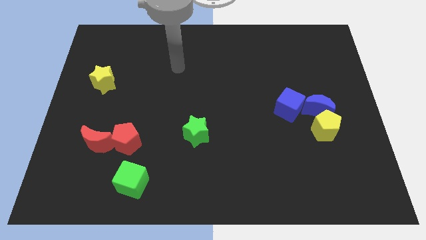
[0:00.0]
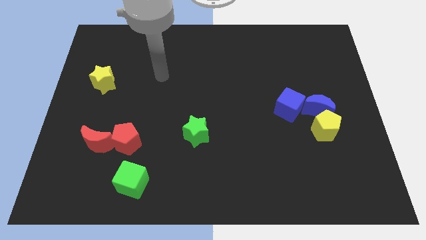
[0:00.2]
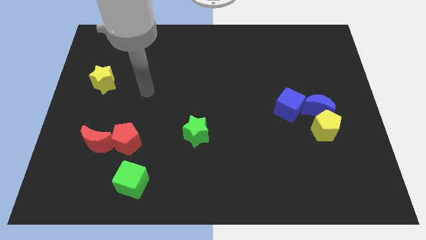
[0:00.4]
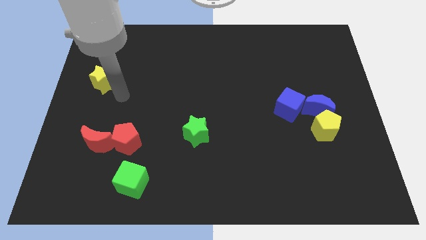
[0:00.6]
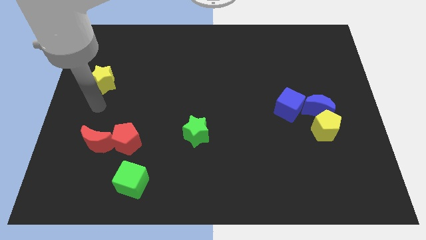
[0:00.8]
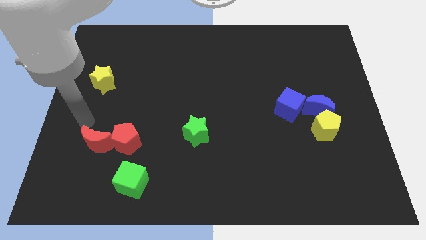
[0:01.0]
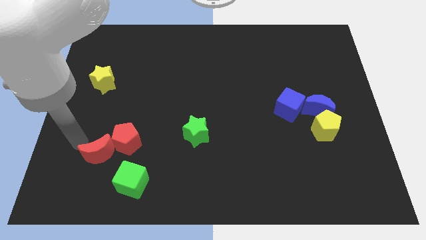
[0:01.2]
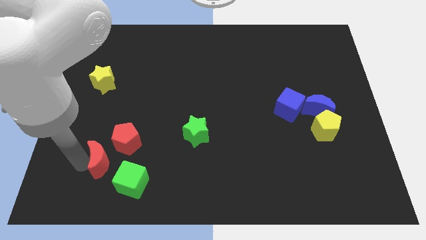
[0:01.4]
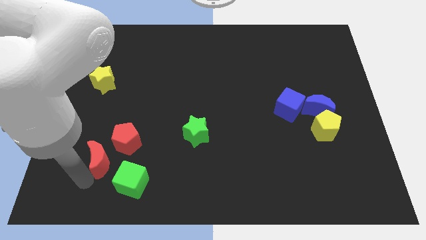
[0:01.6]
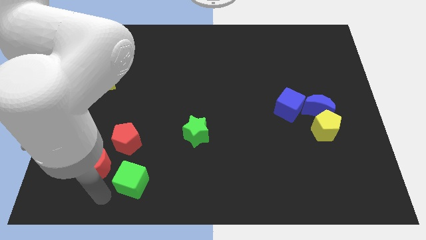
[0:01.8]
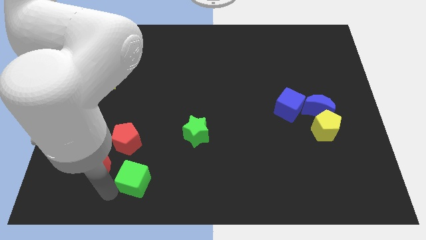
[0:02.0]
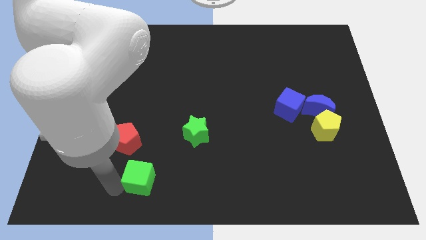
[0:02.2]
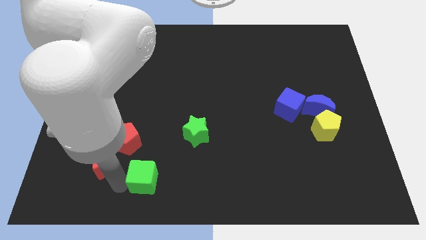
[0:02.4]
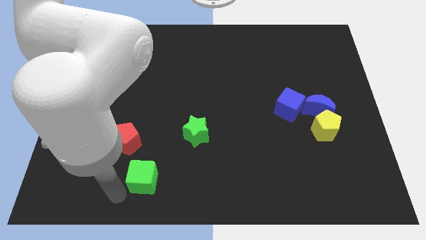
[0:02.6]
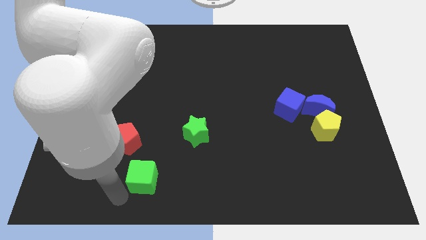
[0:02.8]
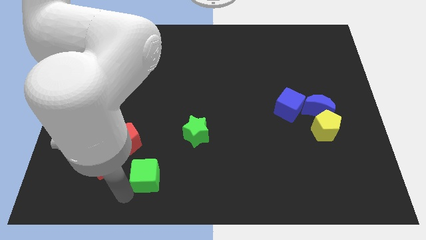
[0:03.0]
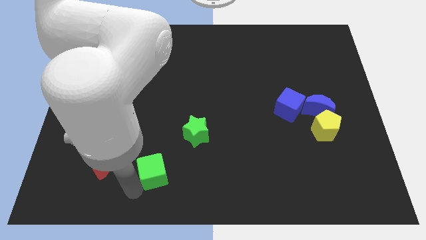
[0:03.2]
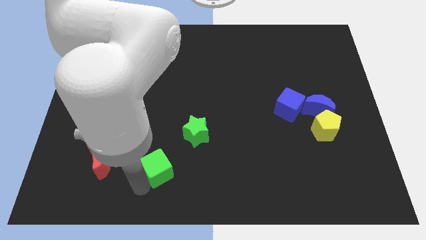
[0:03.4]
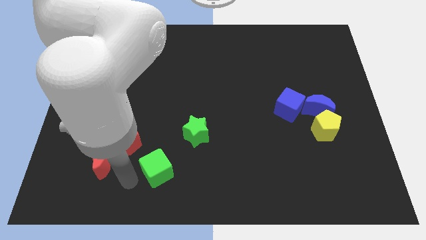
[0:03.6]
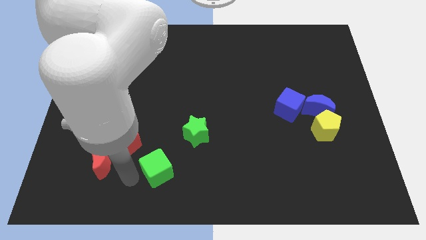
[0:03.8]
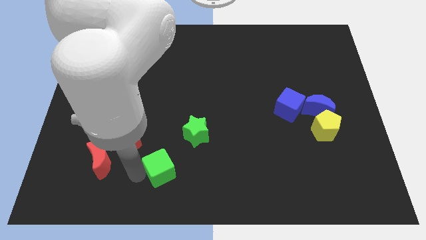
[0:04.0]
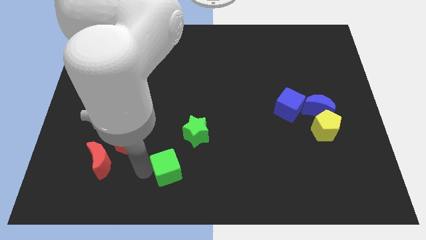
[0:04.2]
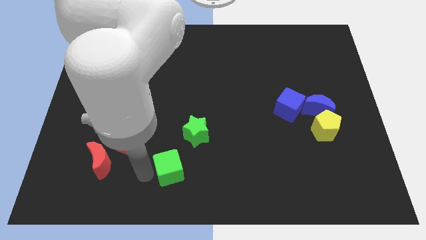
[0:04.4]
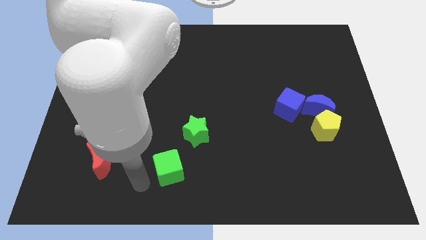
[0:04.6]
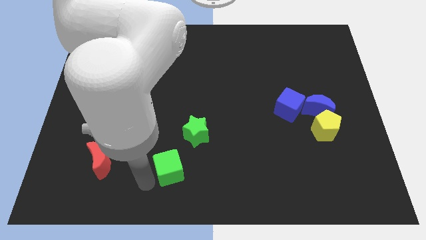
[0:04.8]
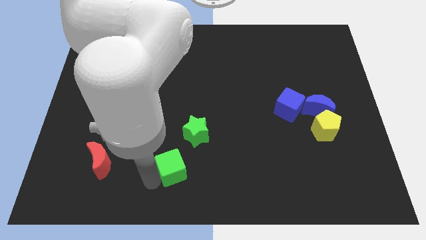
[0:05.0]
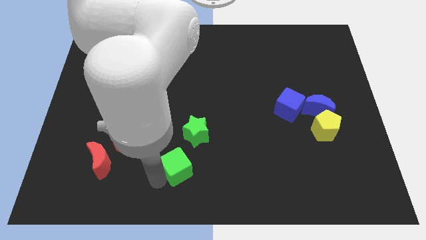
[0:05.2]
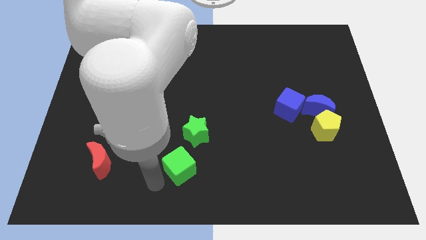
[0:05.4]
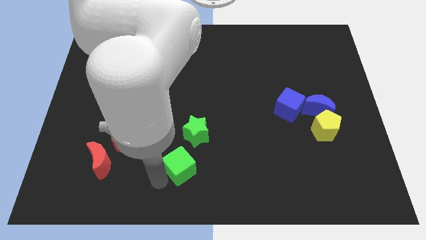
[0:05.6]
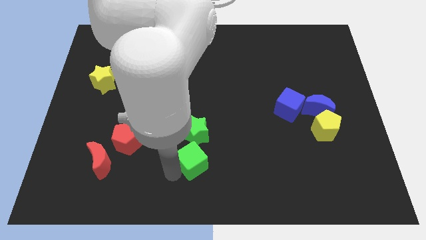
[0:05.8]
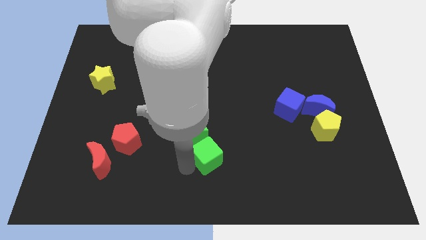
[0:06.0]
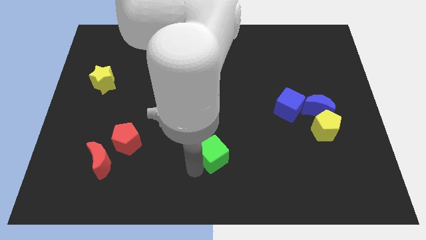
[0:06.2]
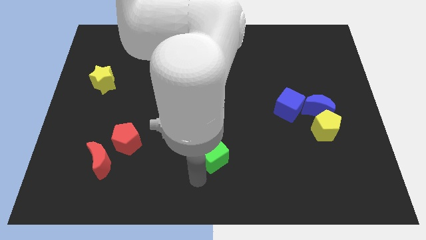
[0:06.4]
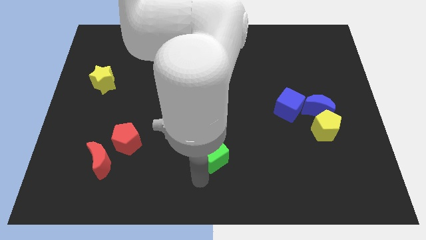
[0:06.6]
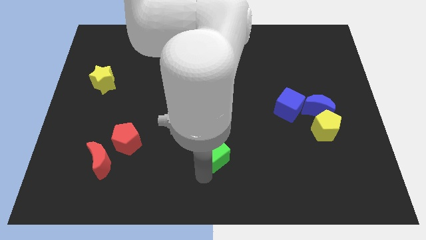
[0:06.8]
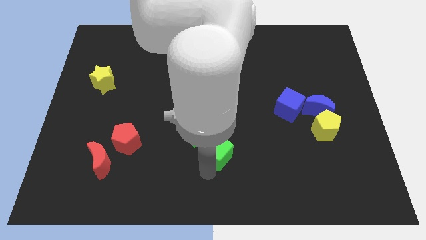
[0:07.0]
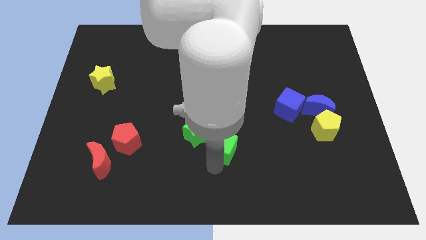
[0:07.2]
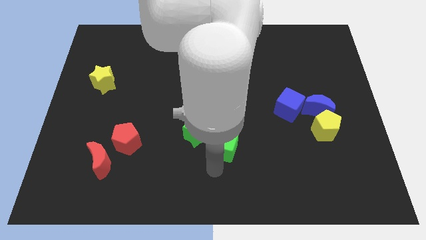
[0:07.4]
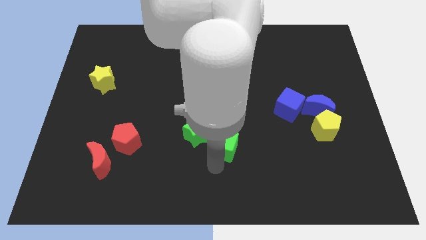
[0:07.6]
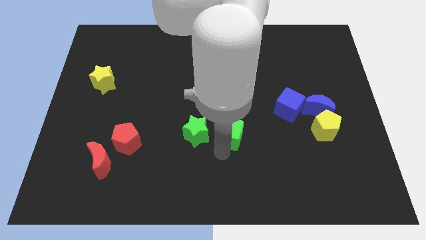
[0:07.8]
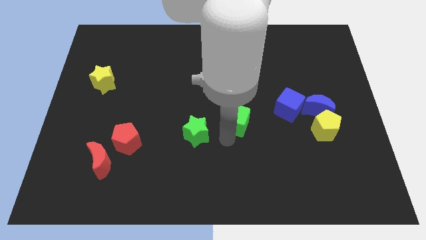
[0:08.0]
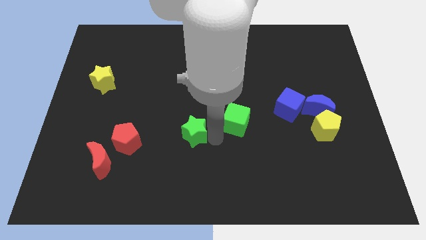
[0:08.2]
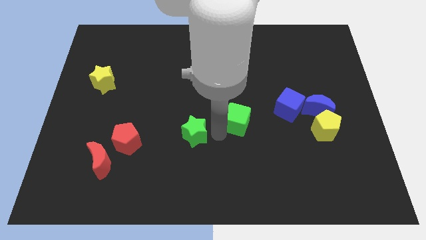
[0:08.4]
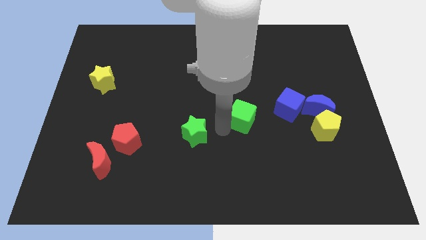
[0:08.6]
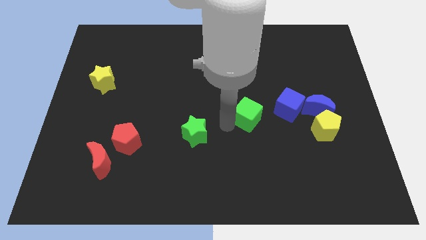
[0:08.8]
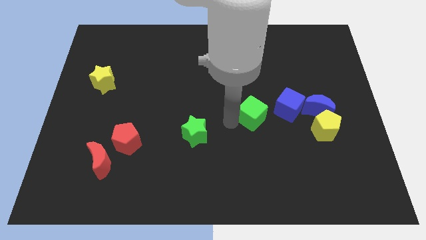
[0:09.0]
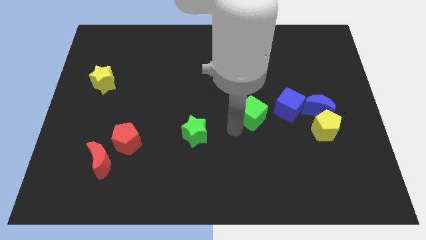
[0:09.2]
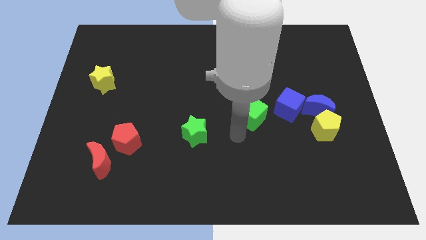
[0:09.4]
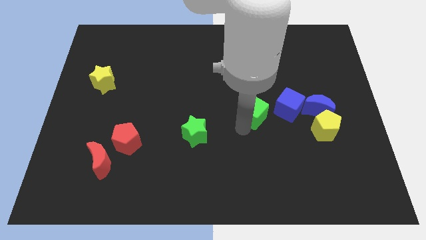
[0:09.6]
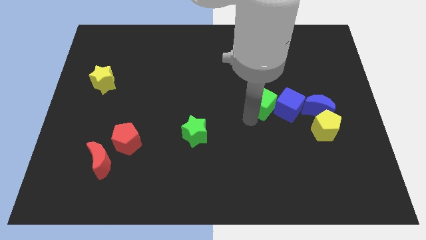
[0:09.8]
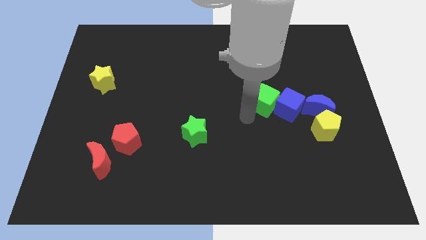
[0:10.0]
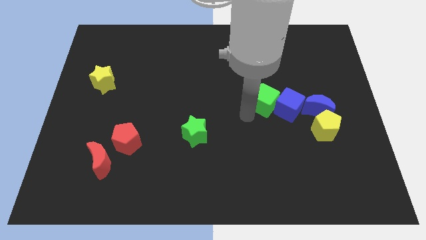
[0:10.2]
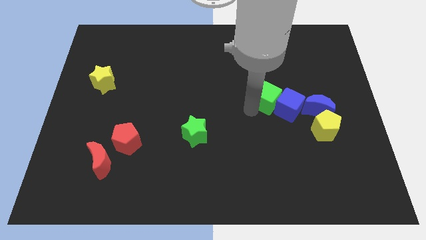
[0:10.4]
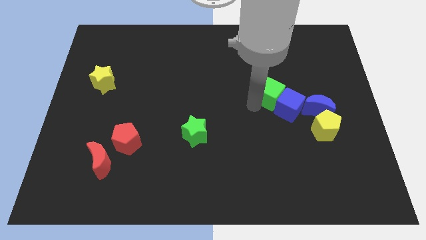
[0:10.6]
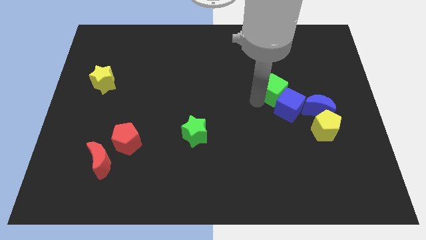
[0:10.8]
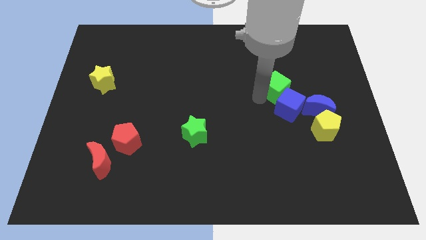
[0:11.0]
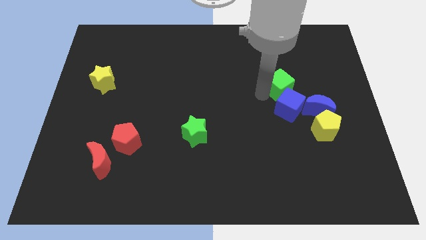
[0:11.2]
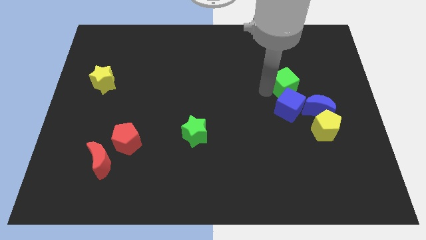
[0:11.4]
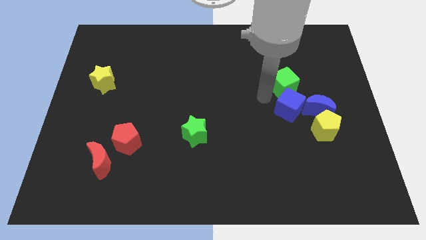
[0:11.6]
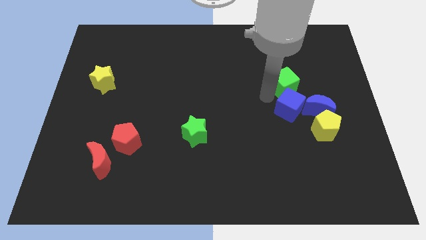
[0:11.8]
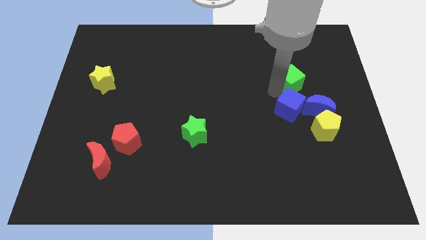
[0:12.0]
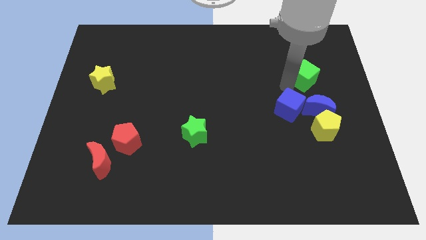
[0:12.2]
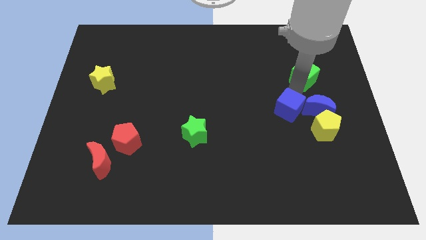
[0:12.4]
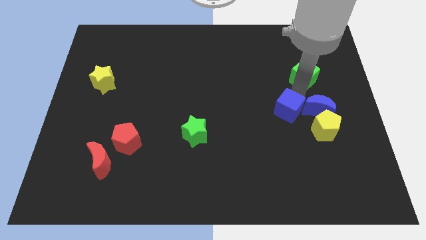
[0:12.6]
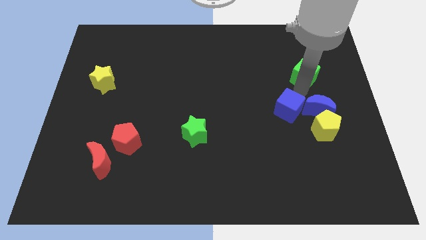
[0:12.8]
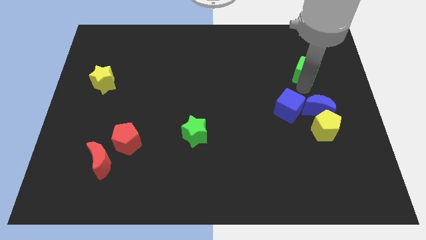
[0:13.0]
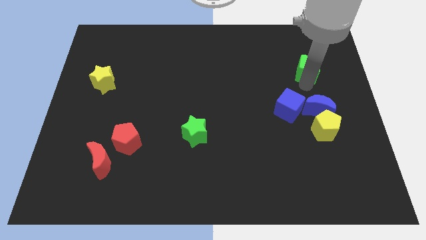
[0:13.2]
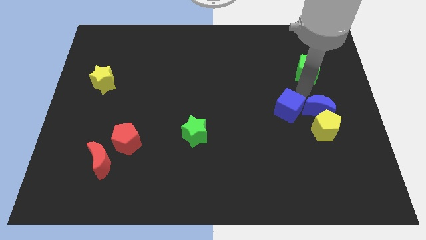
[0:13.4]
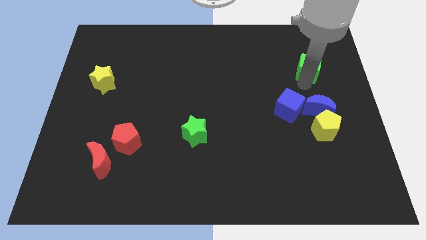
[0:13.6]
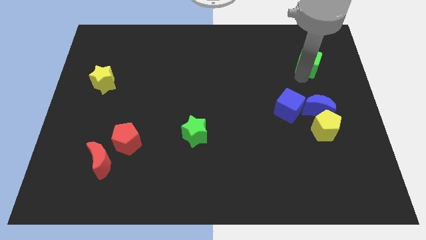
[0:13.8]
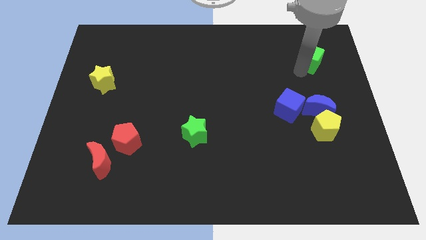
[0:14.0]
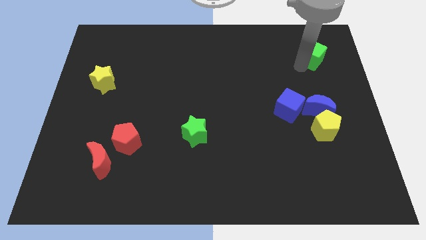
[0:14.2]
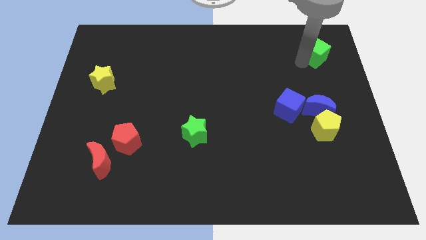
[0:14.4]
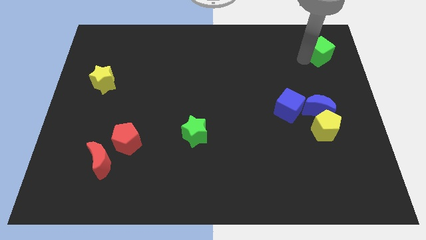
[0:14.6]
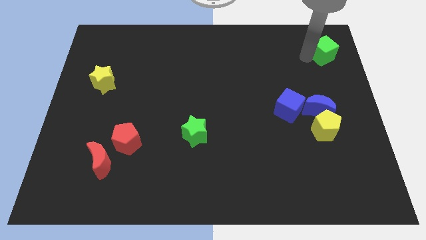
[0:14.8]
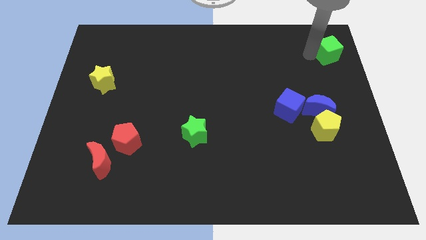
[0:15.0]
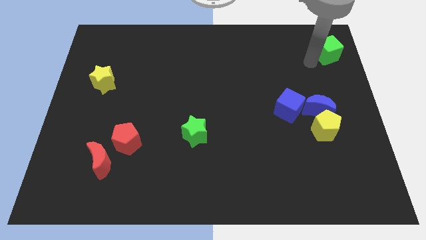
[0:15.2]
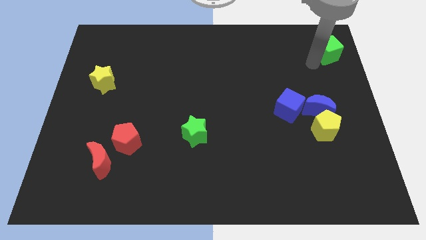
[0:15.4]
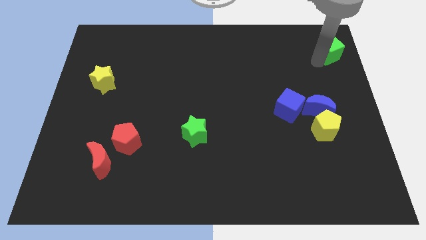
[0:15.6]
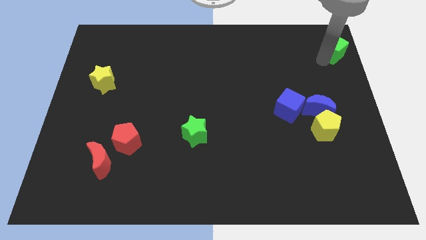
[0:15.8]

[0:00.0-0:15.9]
slide the green cube to the top right

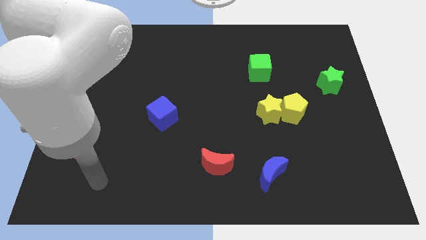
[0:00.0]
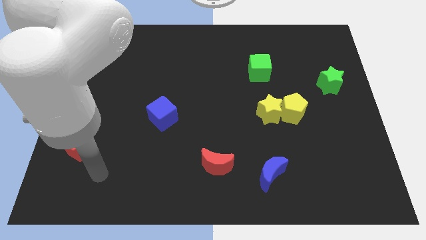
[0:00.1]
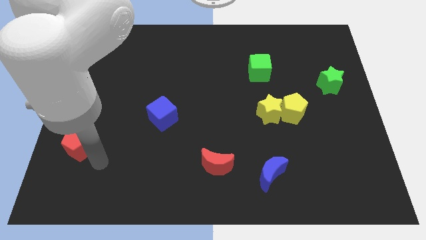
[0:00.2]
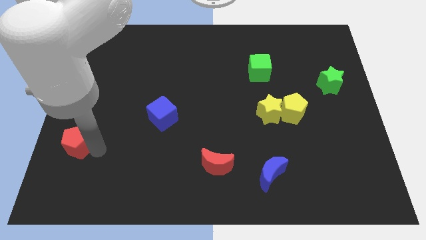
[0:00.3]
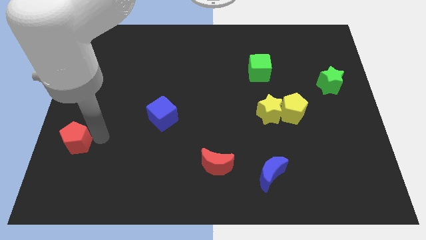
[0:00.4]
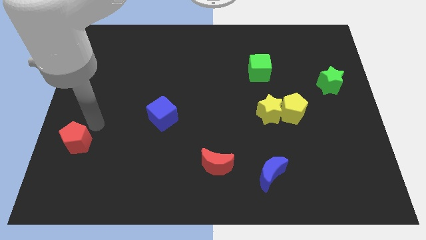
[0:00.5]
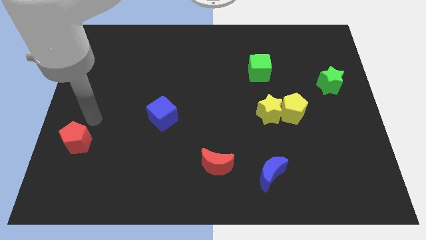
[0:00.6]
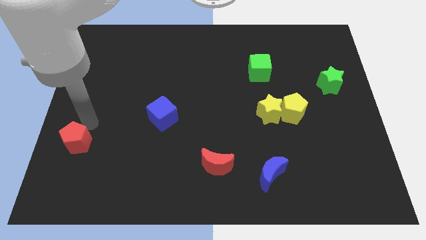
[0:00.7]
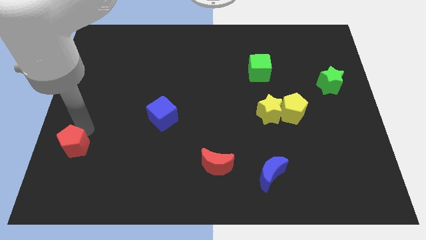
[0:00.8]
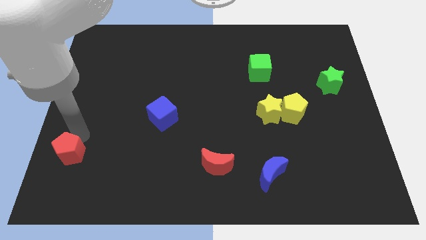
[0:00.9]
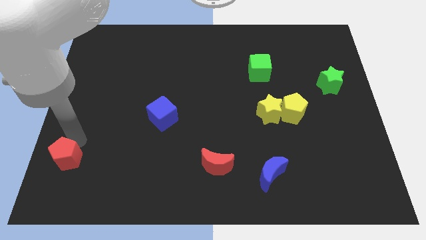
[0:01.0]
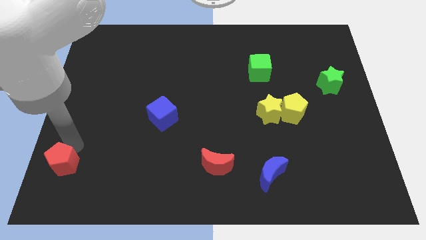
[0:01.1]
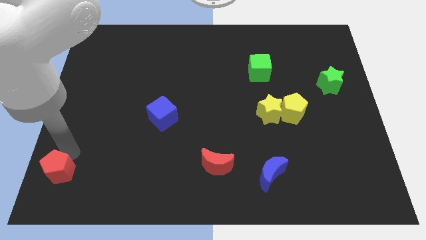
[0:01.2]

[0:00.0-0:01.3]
push the red pentagon to the lower left corner
